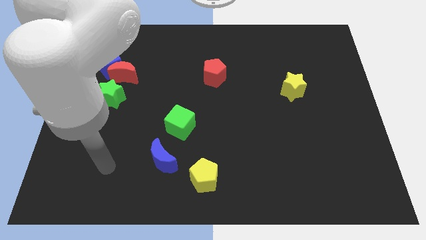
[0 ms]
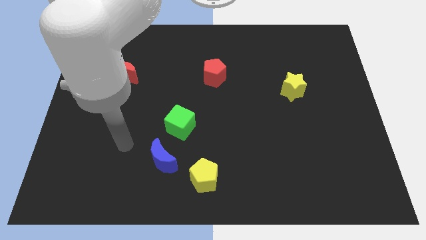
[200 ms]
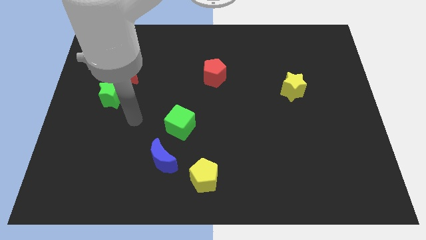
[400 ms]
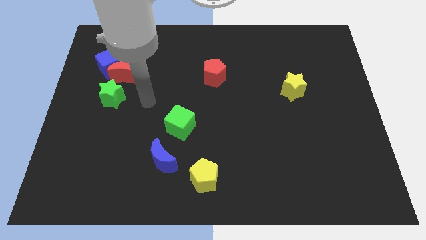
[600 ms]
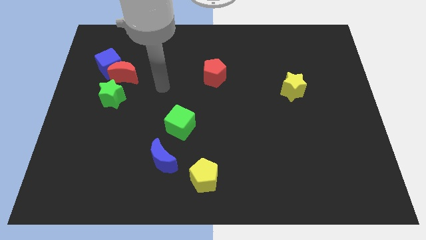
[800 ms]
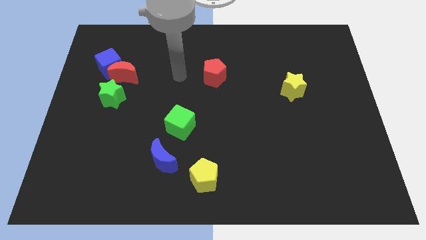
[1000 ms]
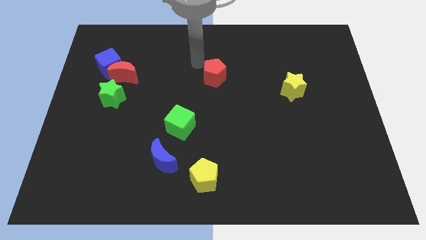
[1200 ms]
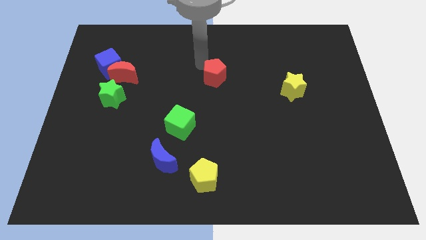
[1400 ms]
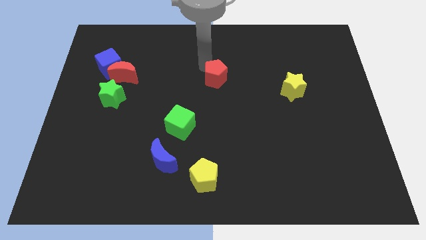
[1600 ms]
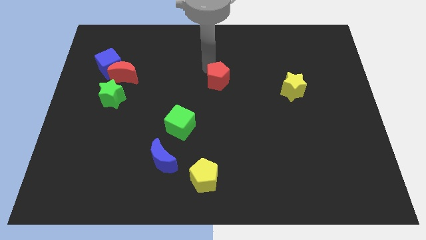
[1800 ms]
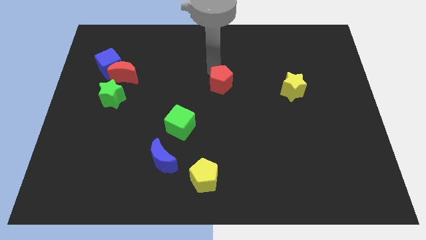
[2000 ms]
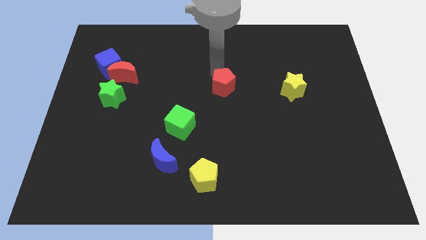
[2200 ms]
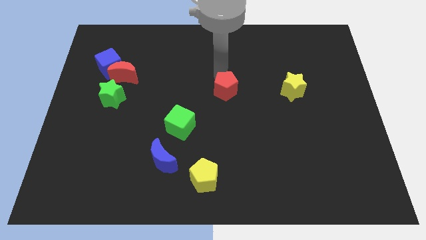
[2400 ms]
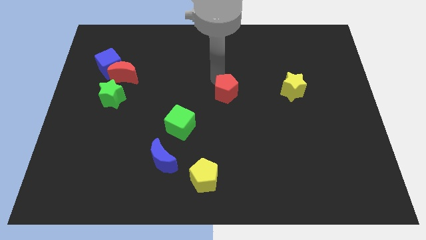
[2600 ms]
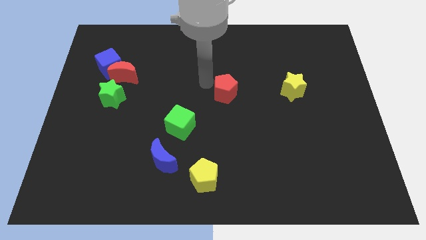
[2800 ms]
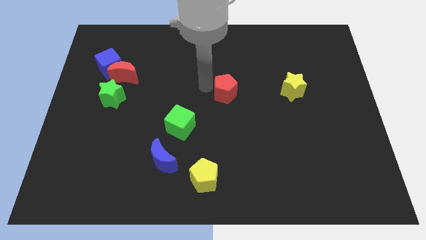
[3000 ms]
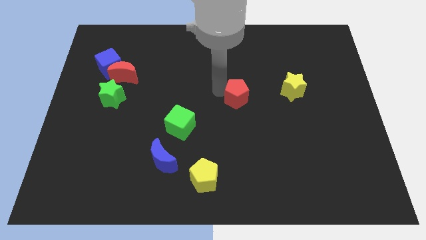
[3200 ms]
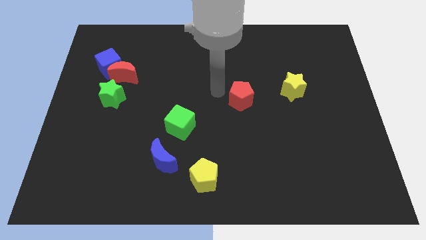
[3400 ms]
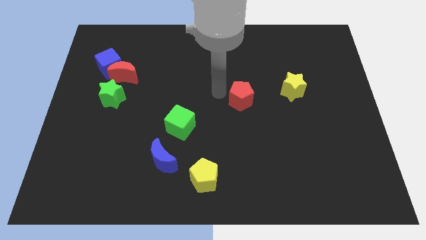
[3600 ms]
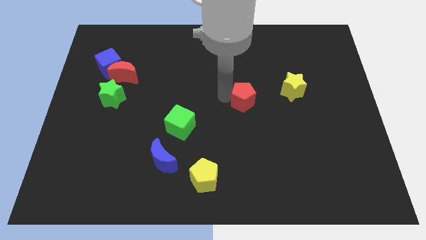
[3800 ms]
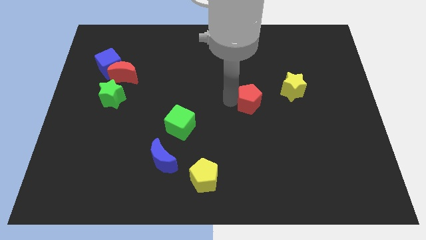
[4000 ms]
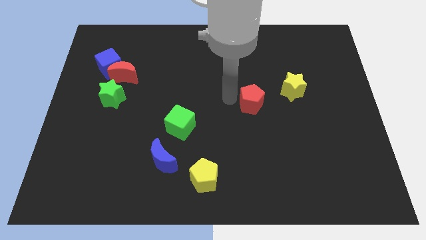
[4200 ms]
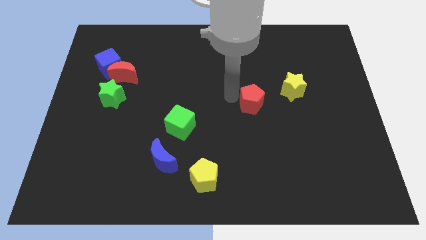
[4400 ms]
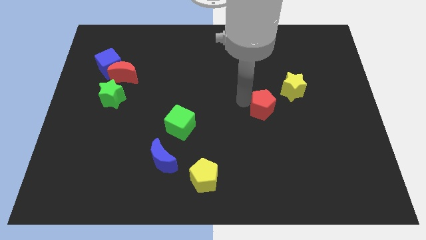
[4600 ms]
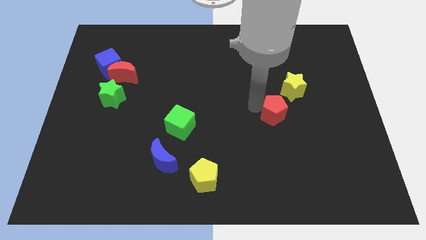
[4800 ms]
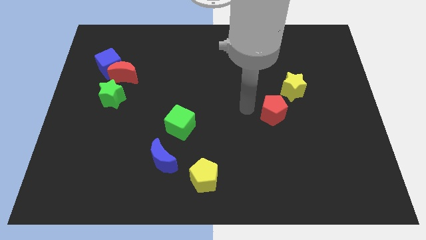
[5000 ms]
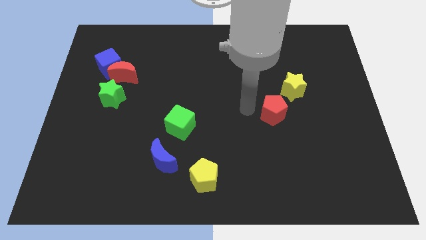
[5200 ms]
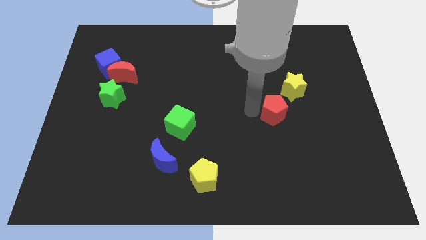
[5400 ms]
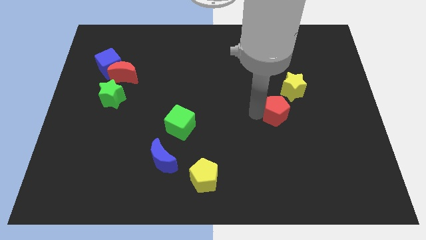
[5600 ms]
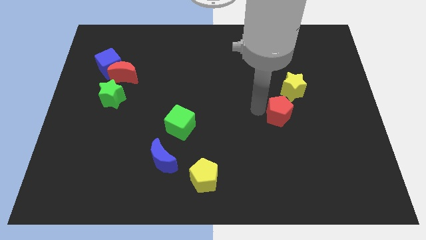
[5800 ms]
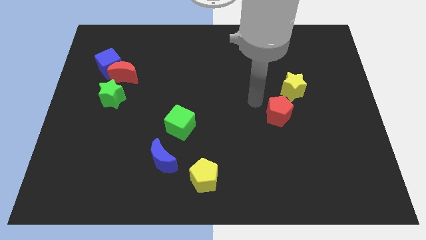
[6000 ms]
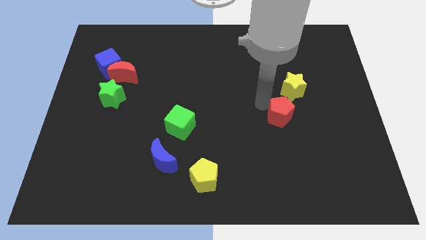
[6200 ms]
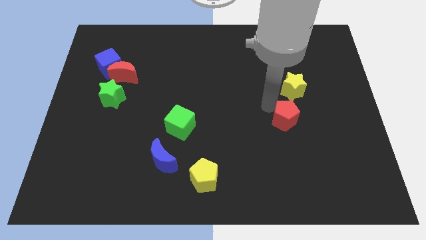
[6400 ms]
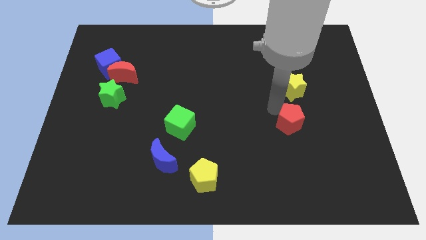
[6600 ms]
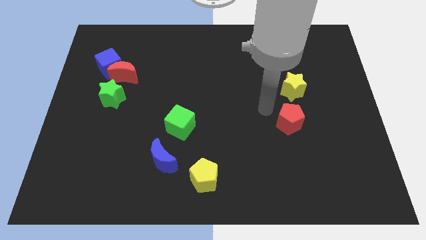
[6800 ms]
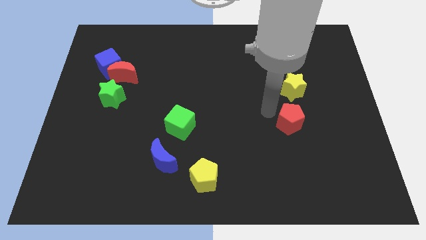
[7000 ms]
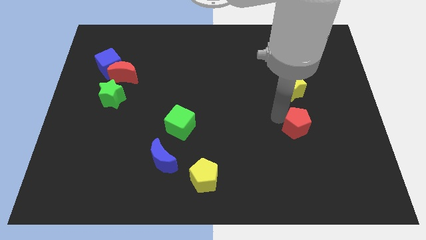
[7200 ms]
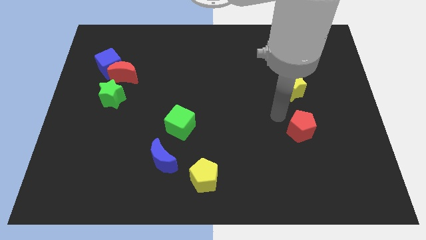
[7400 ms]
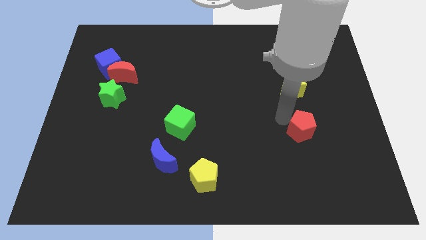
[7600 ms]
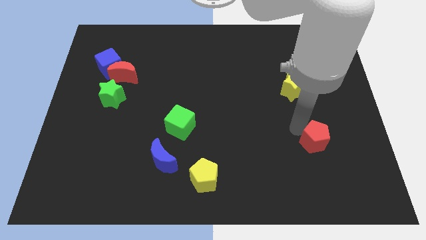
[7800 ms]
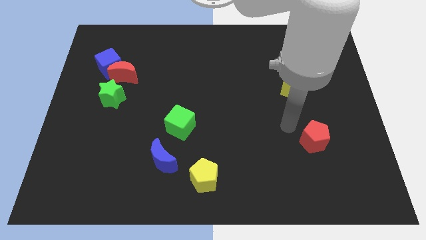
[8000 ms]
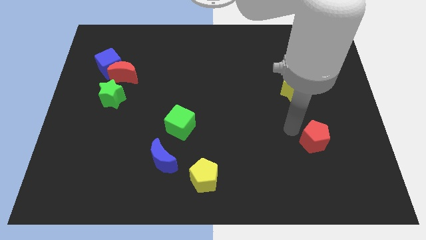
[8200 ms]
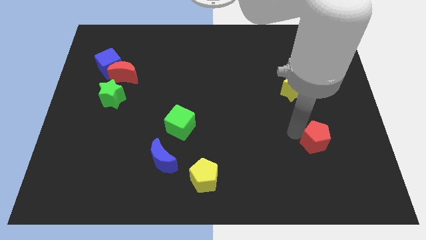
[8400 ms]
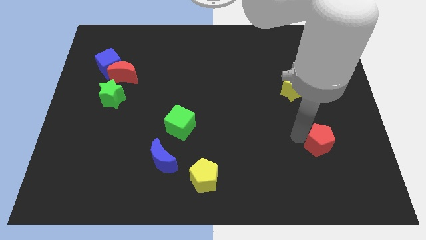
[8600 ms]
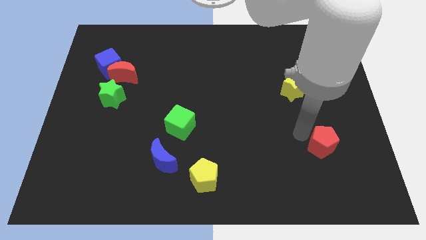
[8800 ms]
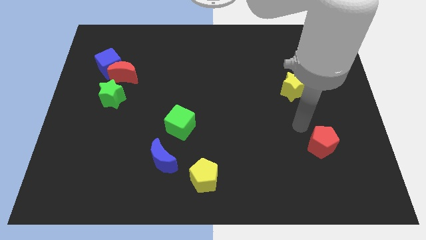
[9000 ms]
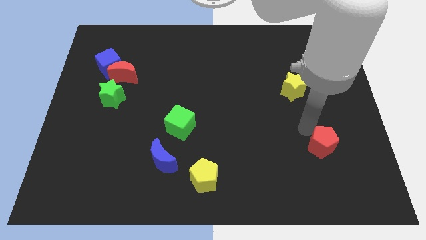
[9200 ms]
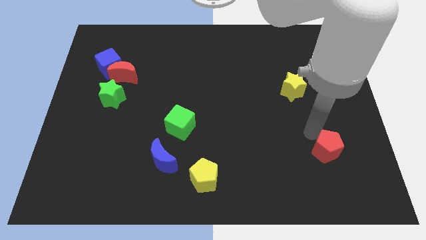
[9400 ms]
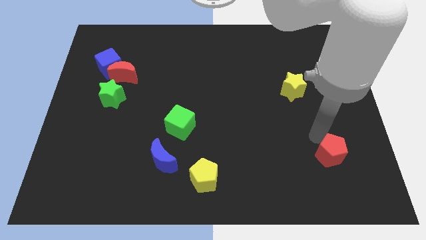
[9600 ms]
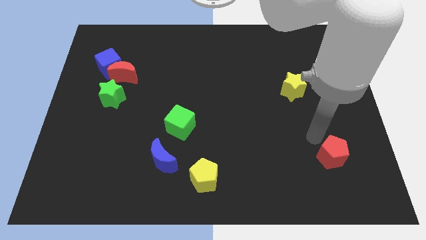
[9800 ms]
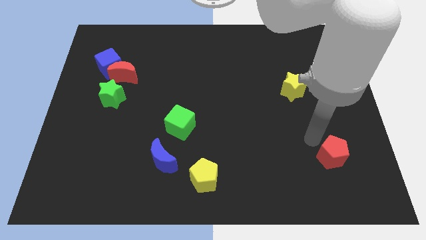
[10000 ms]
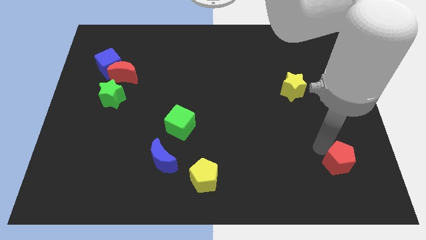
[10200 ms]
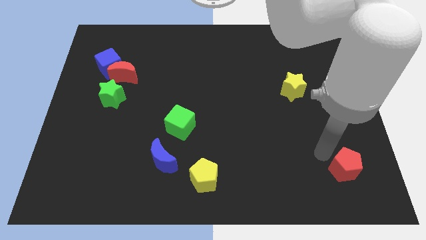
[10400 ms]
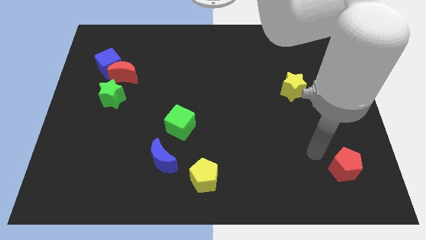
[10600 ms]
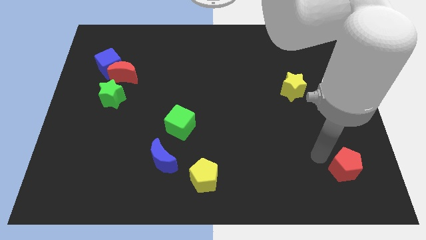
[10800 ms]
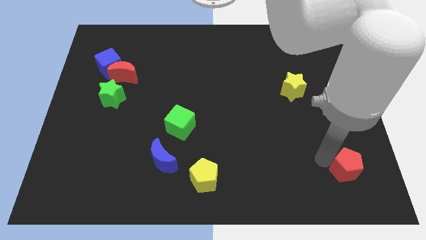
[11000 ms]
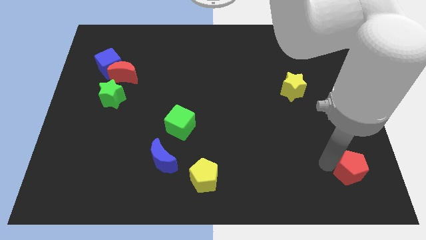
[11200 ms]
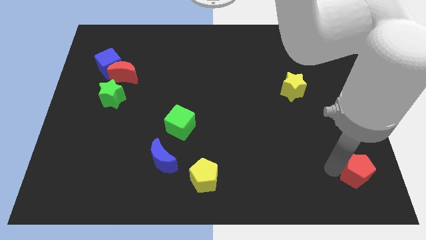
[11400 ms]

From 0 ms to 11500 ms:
move the red pentagon to the lower right corner

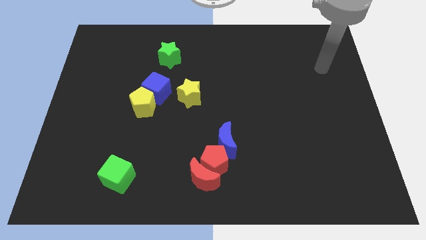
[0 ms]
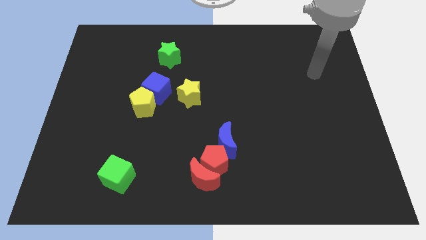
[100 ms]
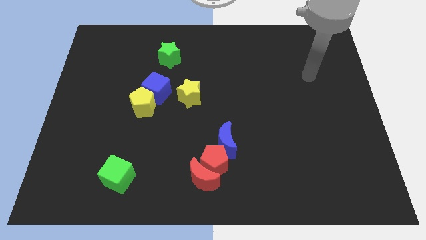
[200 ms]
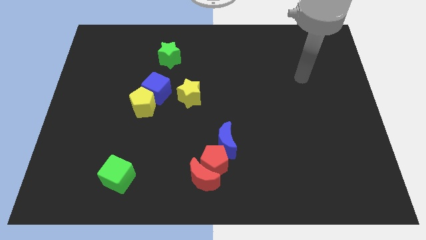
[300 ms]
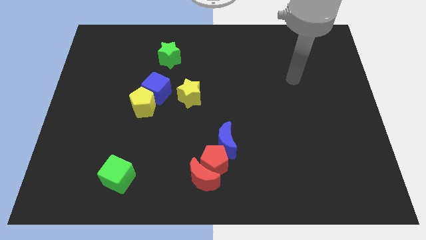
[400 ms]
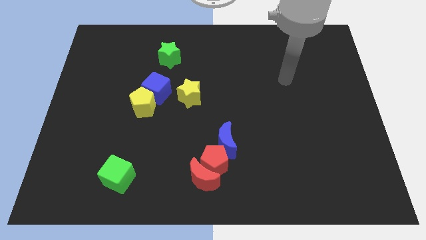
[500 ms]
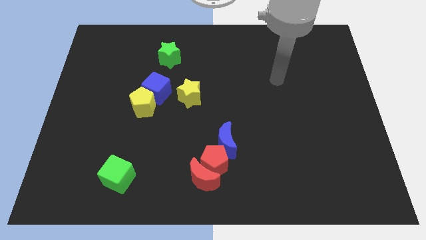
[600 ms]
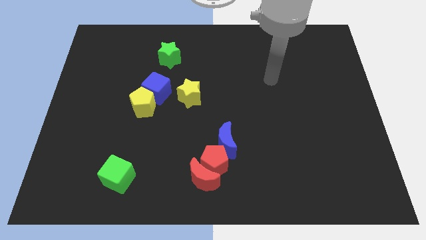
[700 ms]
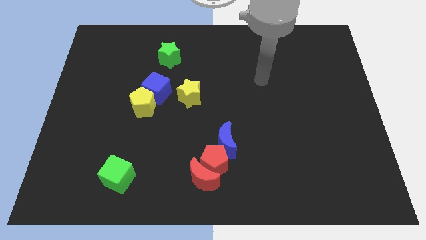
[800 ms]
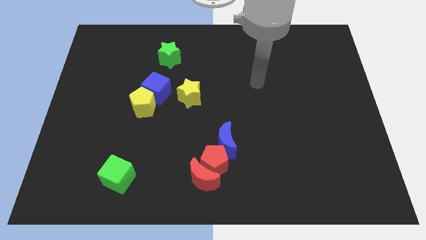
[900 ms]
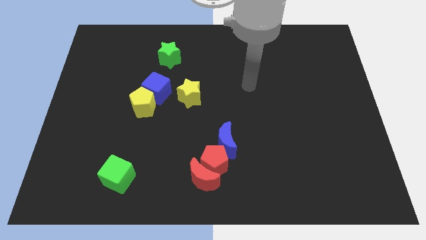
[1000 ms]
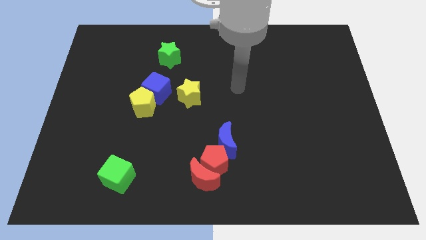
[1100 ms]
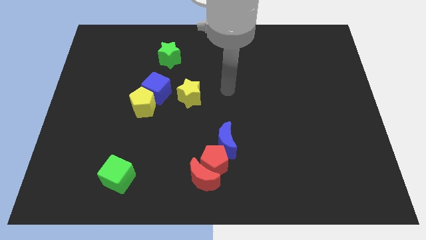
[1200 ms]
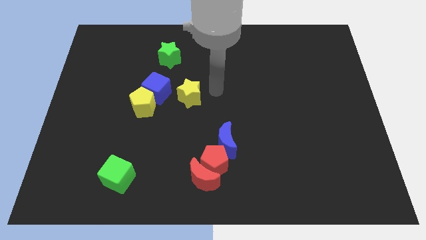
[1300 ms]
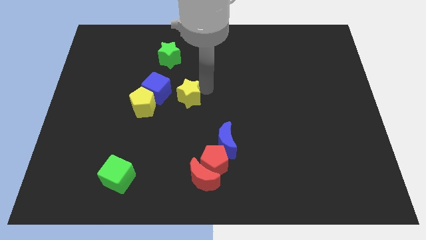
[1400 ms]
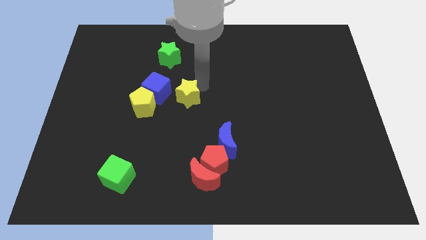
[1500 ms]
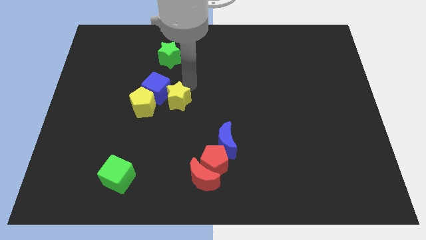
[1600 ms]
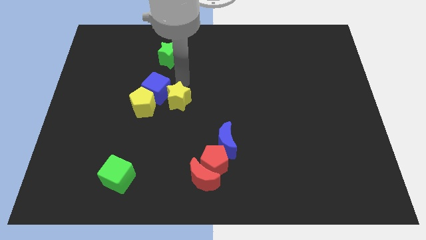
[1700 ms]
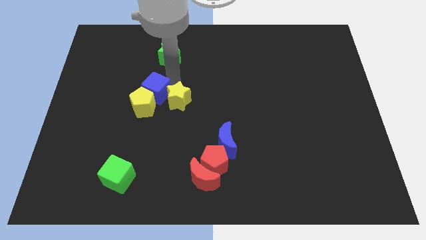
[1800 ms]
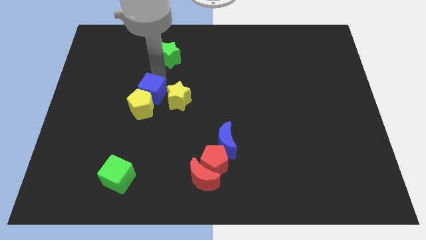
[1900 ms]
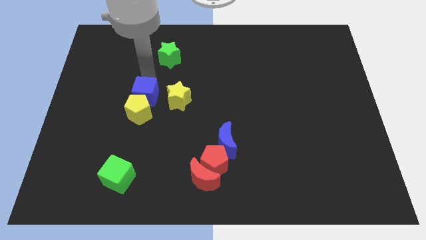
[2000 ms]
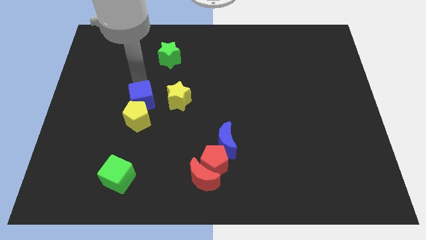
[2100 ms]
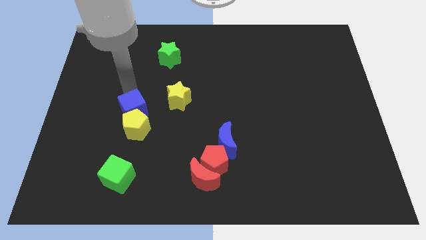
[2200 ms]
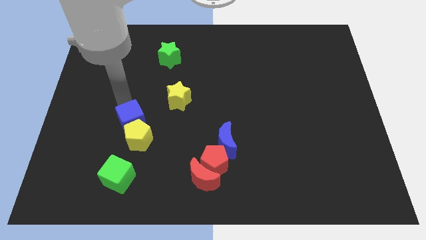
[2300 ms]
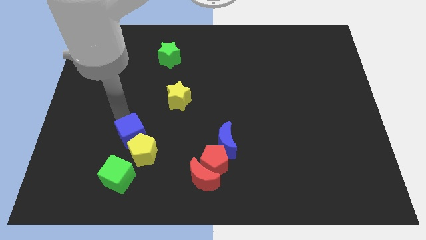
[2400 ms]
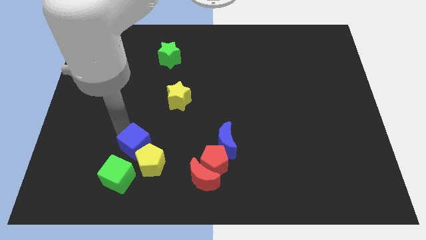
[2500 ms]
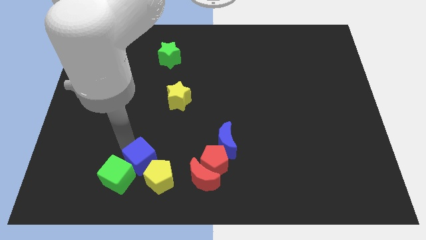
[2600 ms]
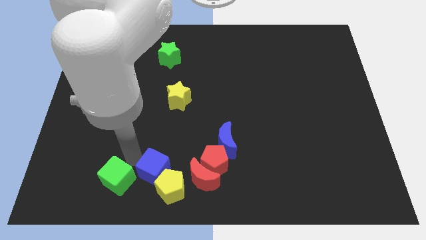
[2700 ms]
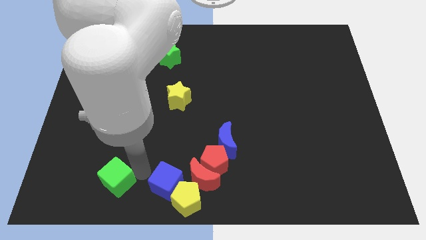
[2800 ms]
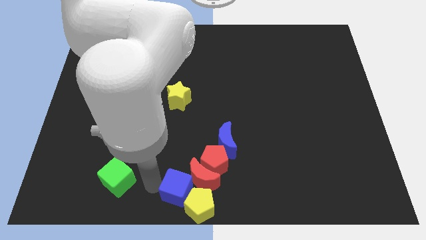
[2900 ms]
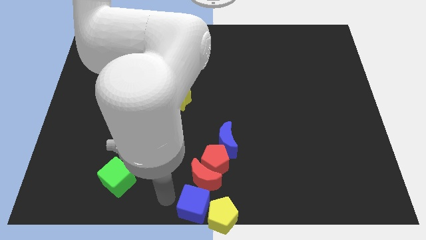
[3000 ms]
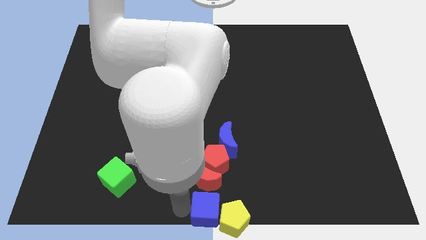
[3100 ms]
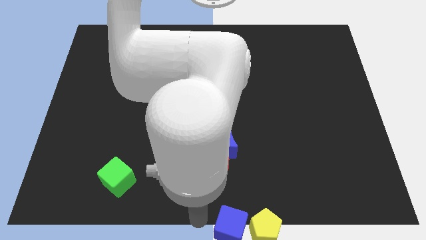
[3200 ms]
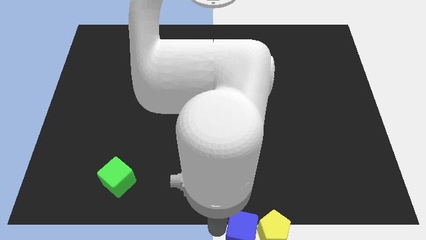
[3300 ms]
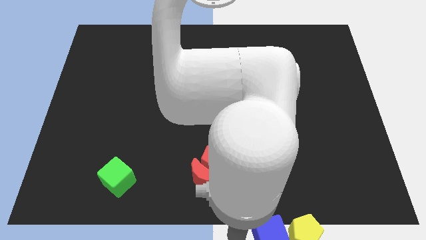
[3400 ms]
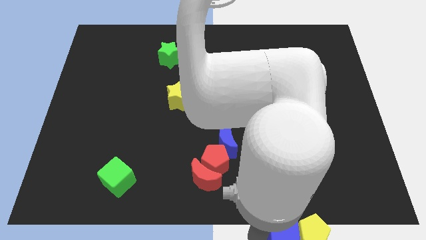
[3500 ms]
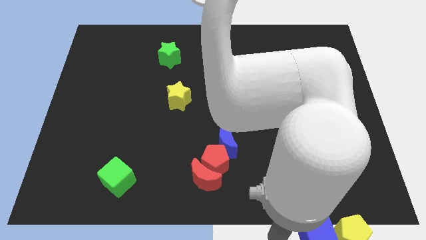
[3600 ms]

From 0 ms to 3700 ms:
push the yellow pentagon to the bottom right corner
